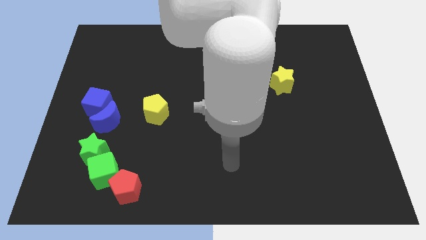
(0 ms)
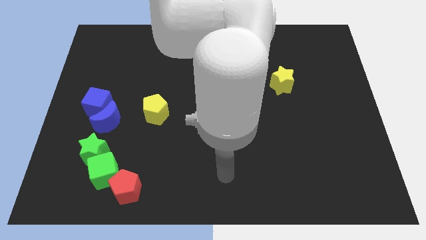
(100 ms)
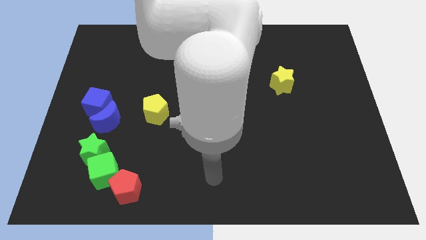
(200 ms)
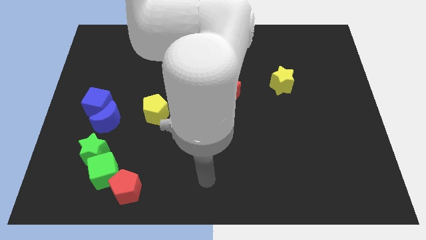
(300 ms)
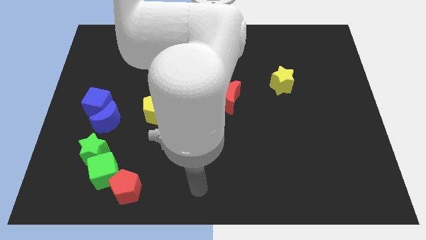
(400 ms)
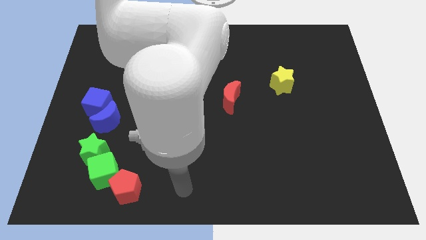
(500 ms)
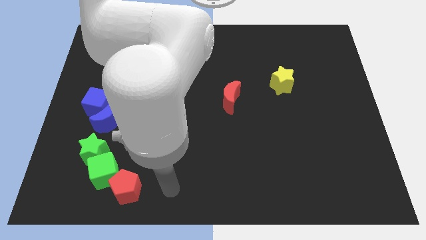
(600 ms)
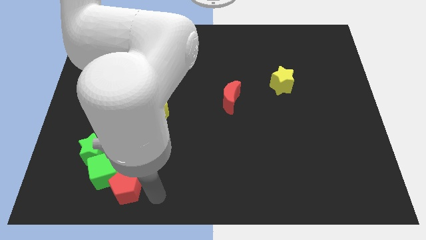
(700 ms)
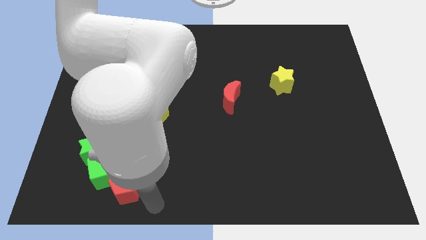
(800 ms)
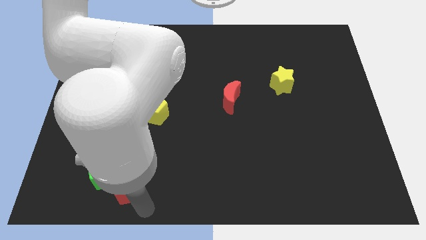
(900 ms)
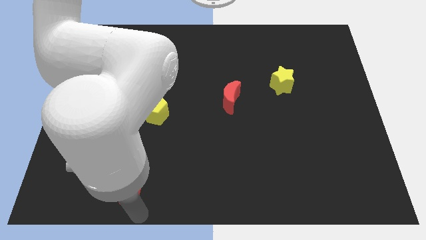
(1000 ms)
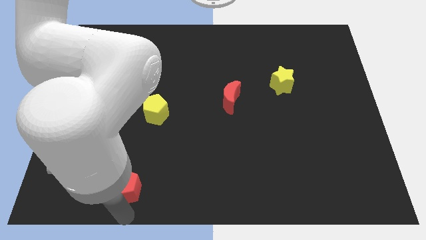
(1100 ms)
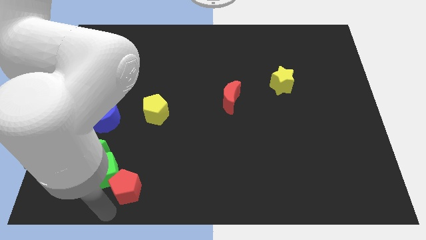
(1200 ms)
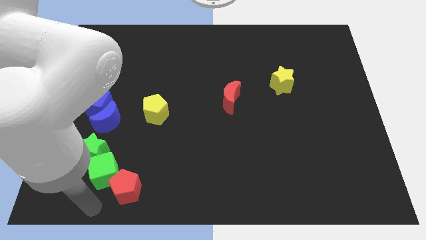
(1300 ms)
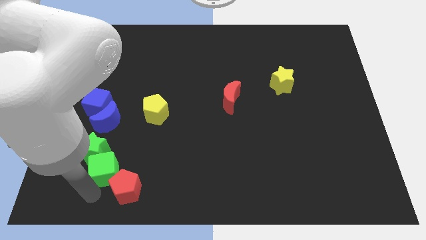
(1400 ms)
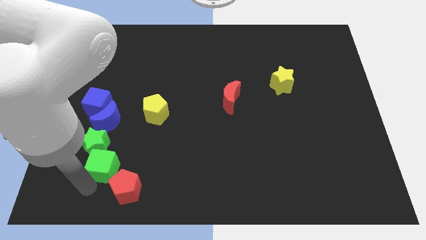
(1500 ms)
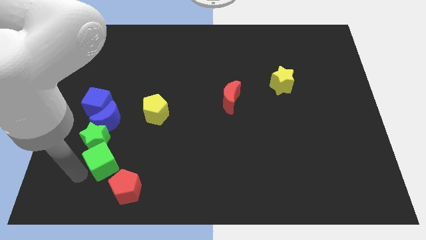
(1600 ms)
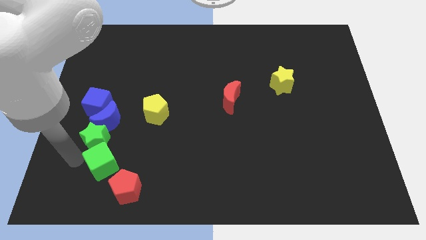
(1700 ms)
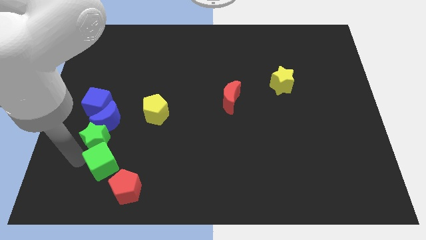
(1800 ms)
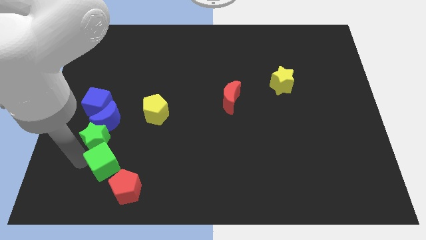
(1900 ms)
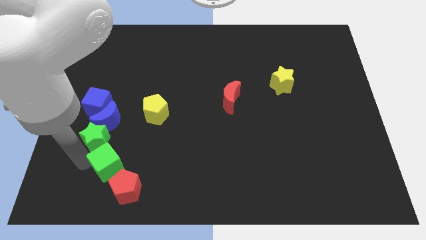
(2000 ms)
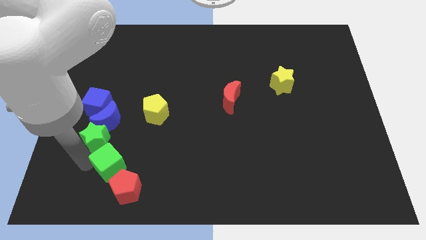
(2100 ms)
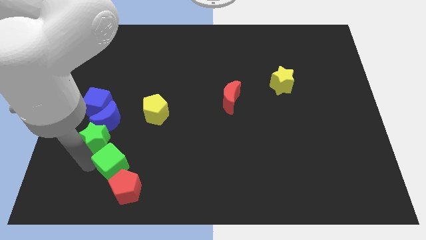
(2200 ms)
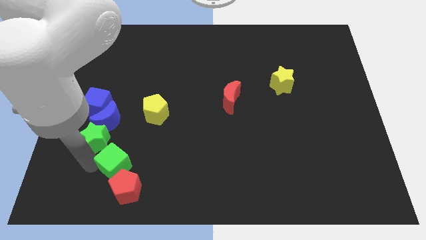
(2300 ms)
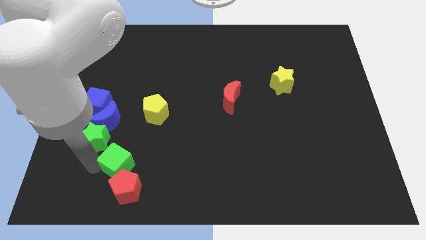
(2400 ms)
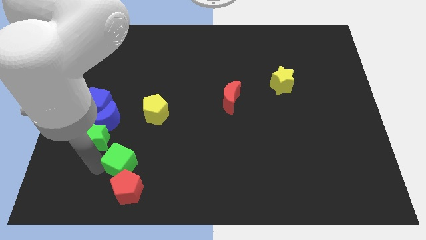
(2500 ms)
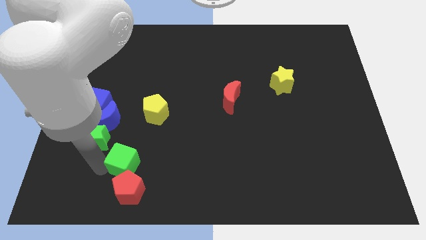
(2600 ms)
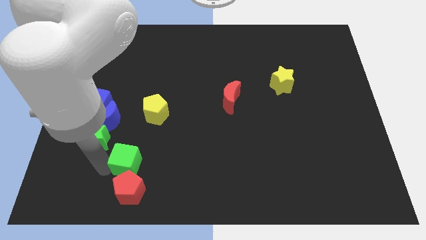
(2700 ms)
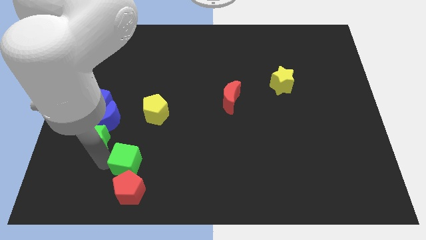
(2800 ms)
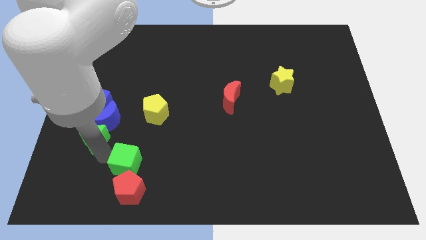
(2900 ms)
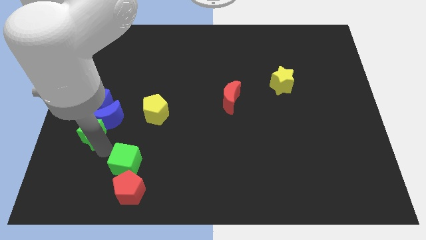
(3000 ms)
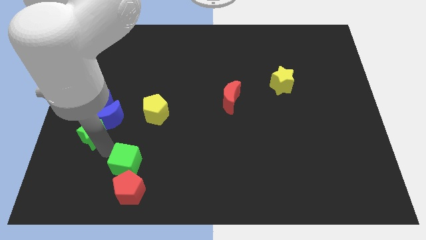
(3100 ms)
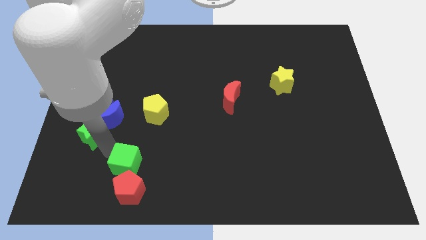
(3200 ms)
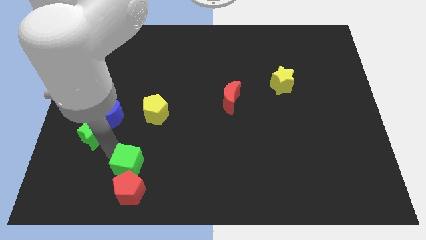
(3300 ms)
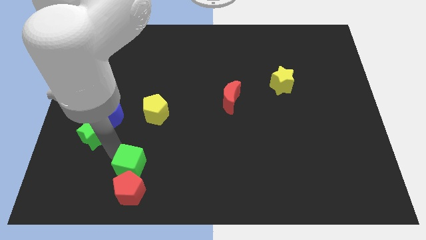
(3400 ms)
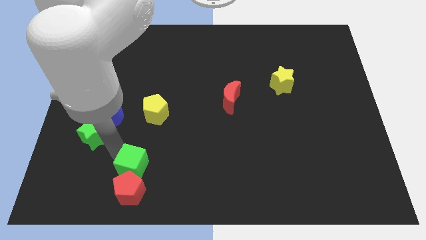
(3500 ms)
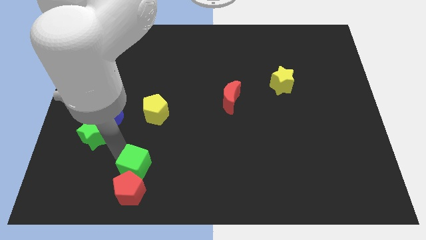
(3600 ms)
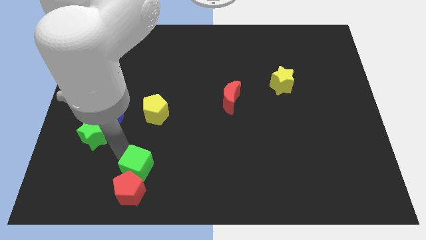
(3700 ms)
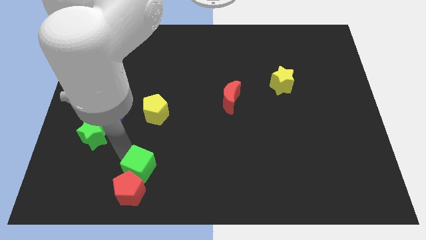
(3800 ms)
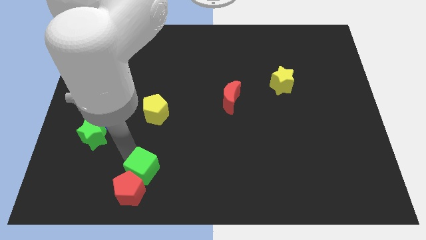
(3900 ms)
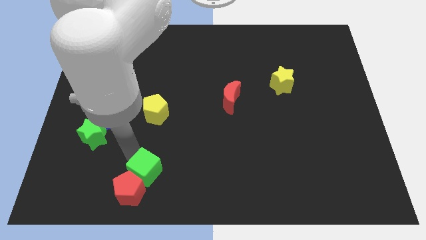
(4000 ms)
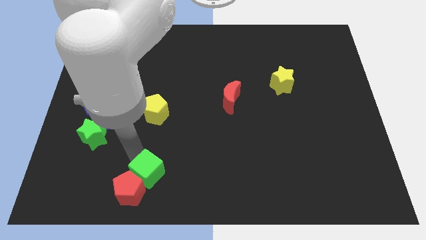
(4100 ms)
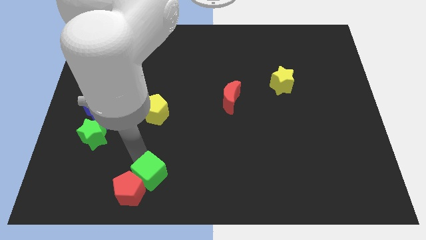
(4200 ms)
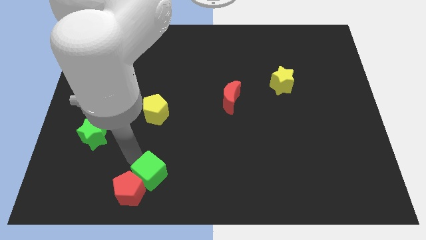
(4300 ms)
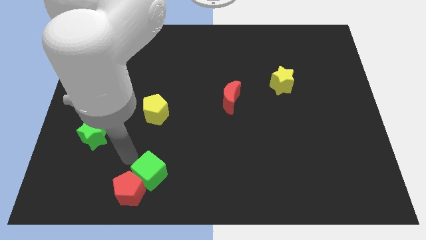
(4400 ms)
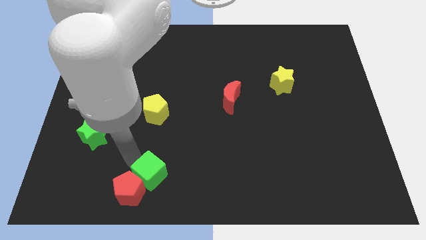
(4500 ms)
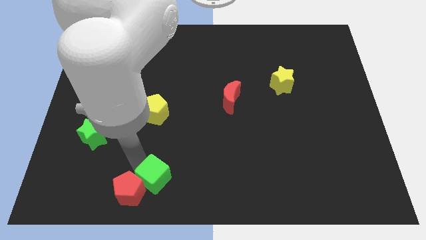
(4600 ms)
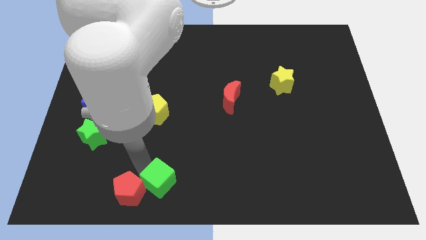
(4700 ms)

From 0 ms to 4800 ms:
push the green cube to the bottom side
